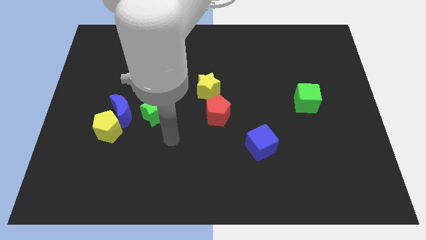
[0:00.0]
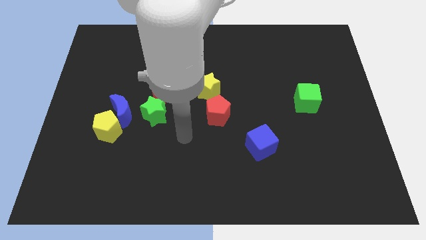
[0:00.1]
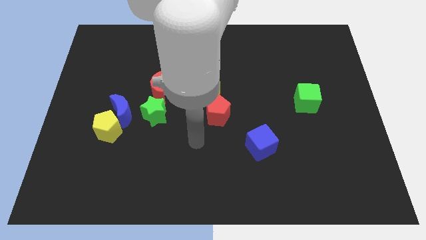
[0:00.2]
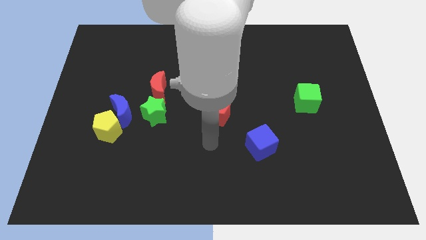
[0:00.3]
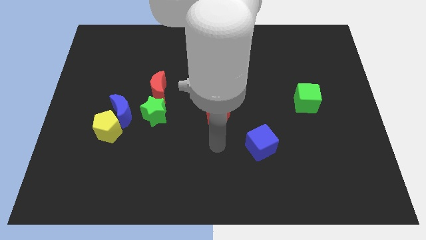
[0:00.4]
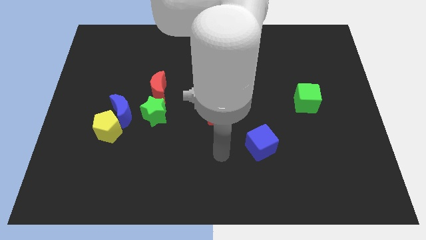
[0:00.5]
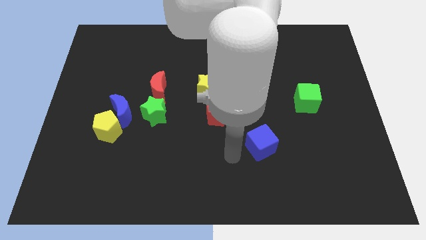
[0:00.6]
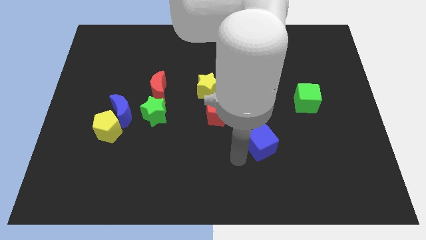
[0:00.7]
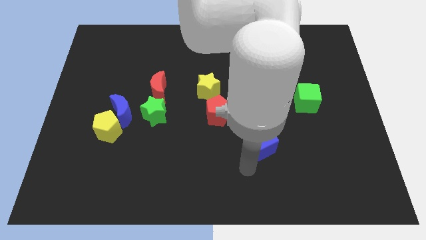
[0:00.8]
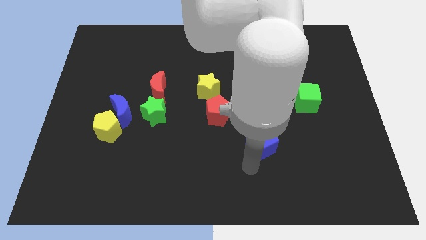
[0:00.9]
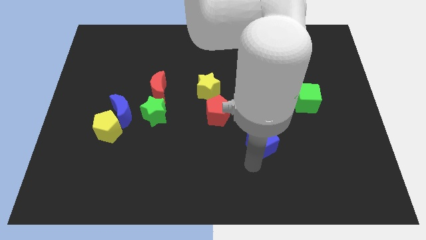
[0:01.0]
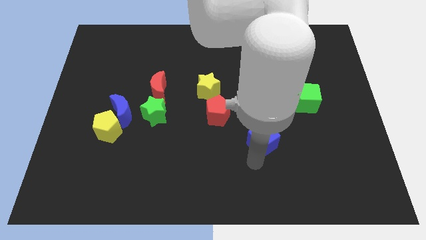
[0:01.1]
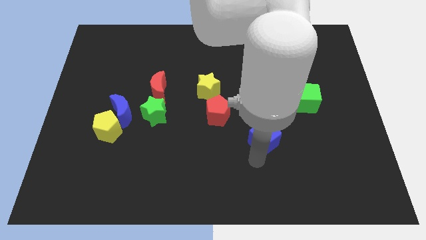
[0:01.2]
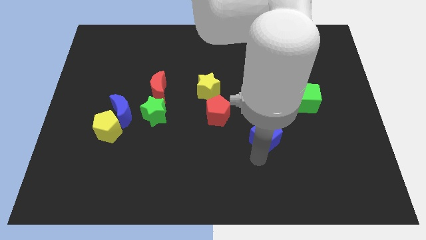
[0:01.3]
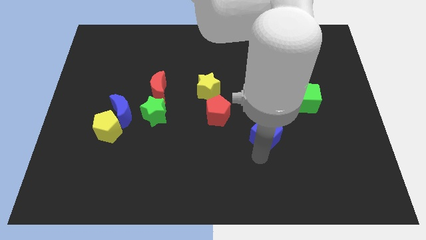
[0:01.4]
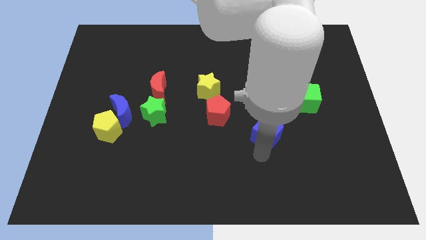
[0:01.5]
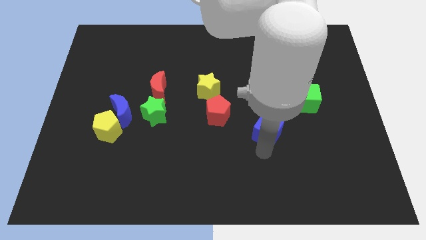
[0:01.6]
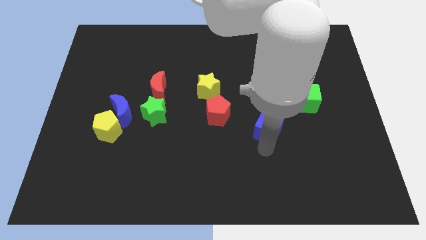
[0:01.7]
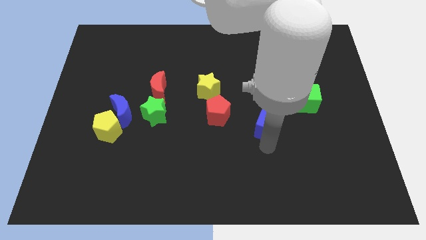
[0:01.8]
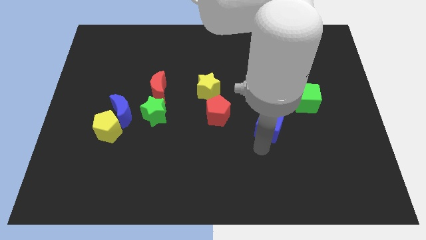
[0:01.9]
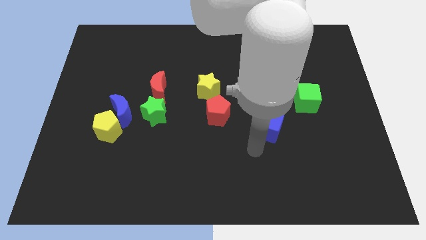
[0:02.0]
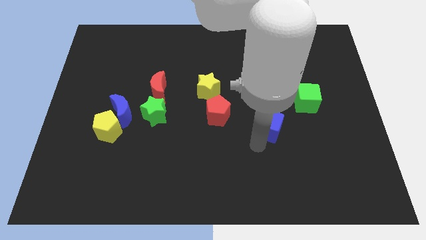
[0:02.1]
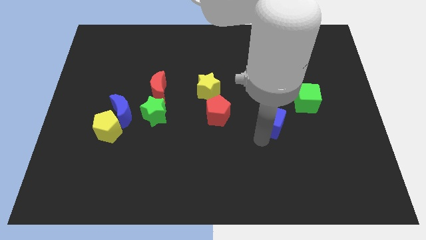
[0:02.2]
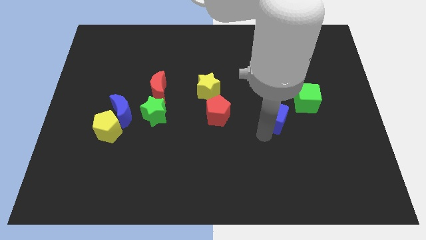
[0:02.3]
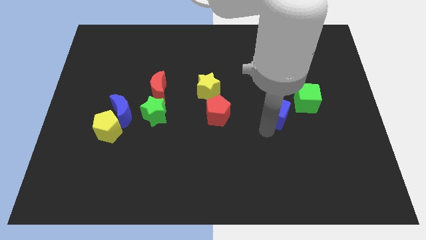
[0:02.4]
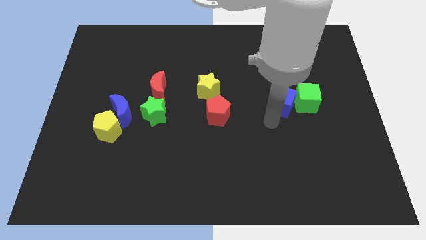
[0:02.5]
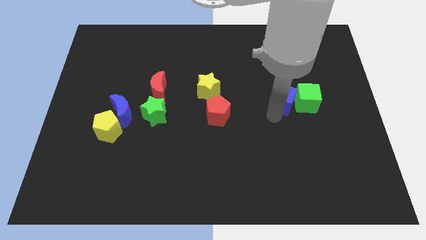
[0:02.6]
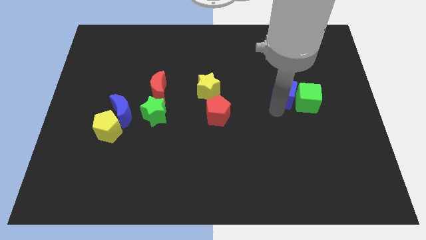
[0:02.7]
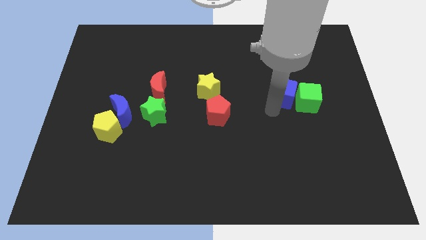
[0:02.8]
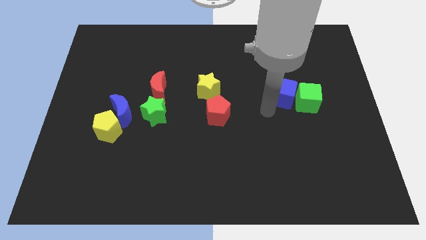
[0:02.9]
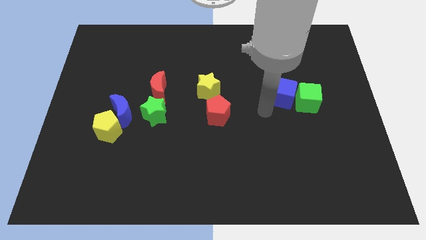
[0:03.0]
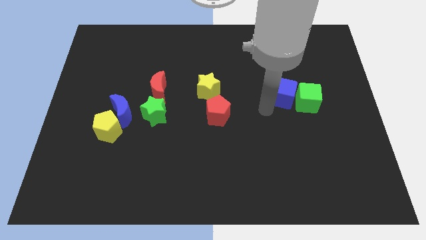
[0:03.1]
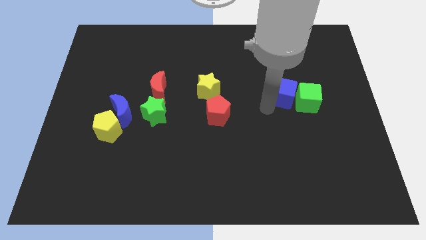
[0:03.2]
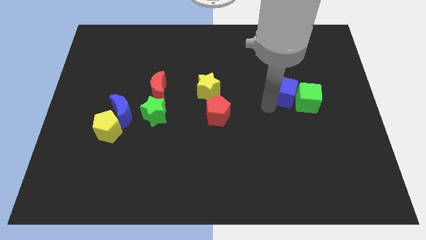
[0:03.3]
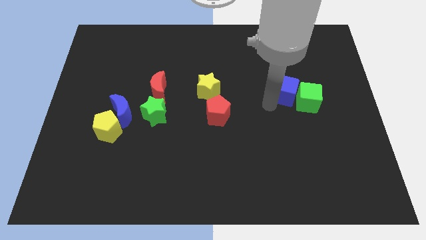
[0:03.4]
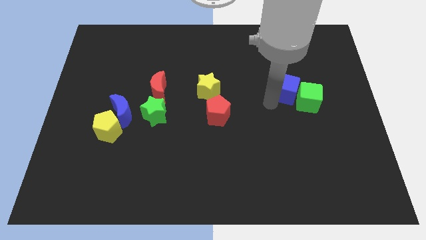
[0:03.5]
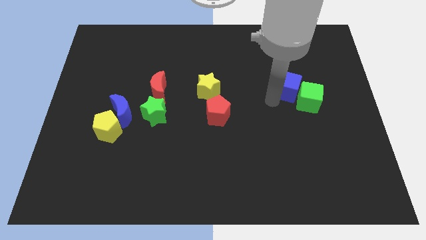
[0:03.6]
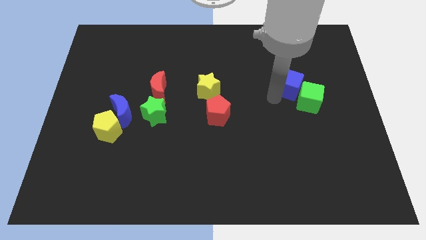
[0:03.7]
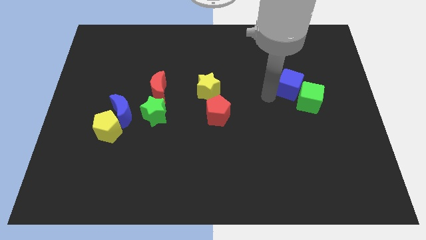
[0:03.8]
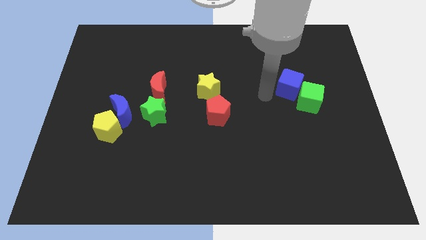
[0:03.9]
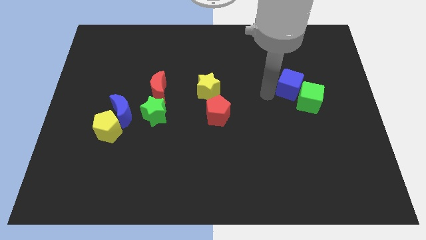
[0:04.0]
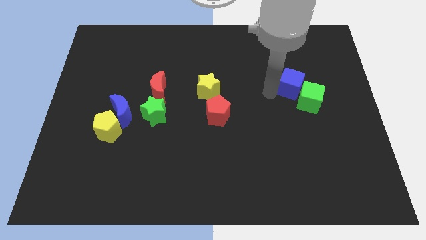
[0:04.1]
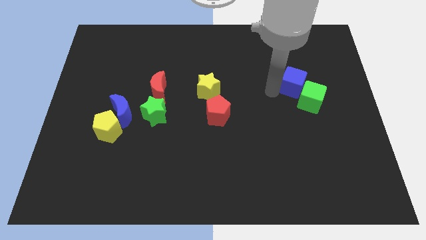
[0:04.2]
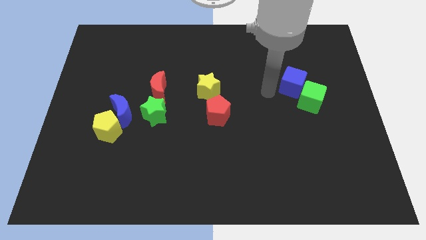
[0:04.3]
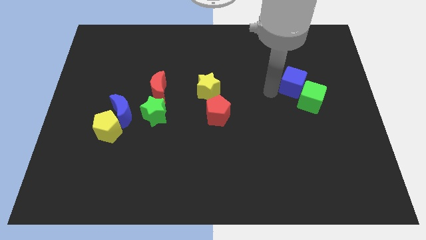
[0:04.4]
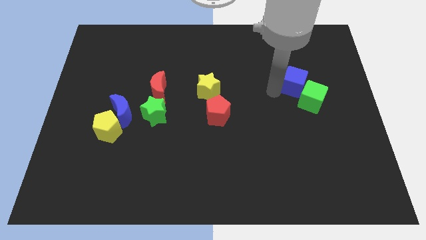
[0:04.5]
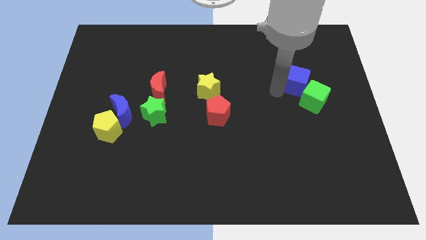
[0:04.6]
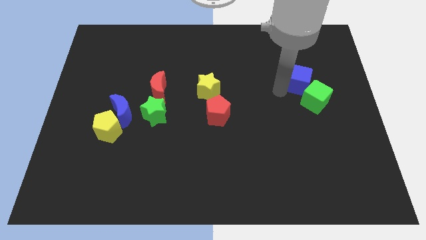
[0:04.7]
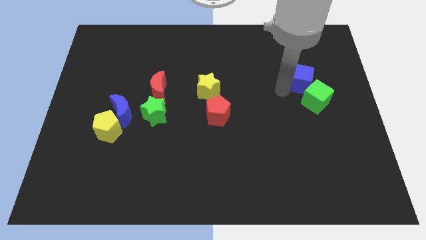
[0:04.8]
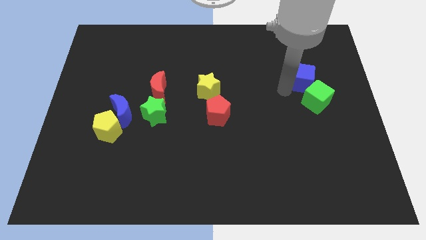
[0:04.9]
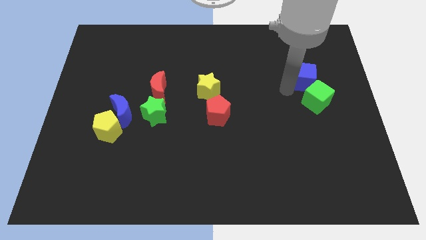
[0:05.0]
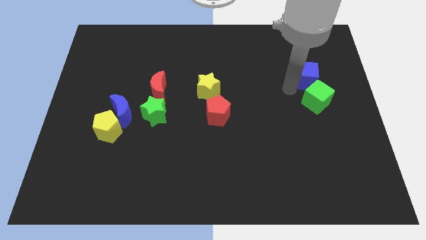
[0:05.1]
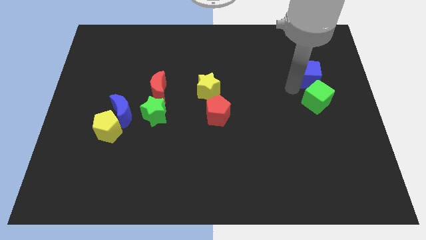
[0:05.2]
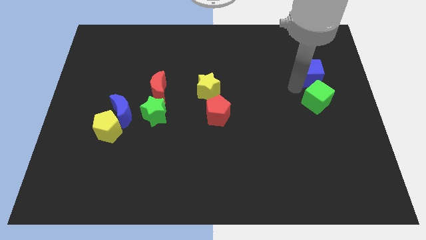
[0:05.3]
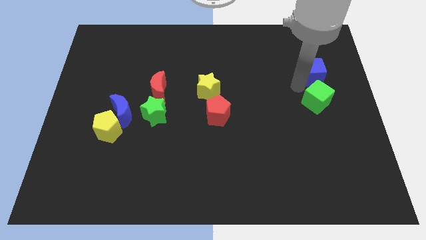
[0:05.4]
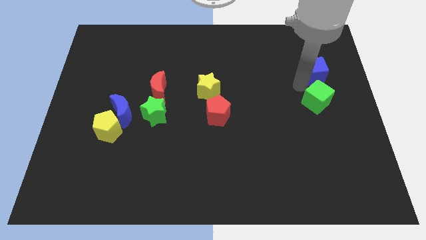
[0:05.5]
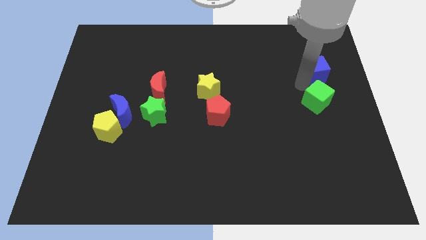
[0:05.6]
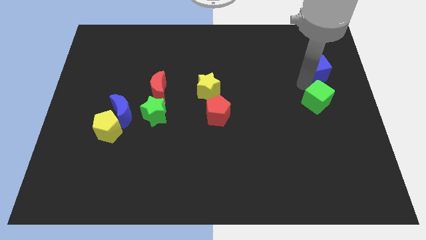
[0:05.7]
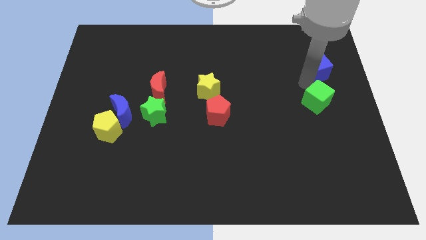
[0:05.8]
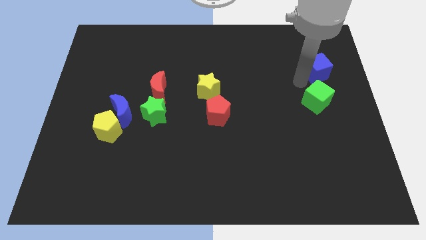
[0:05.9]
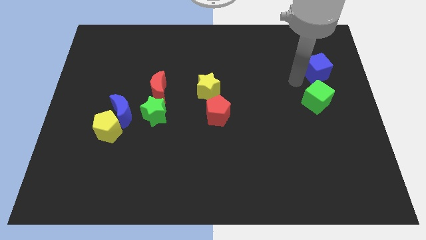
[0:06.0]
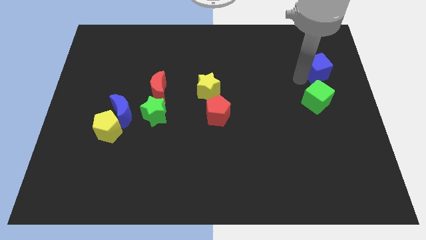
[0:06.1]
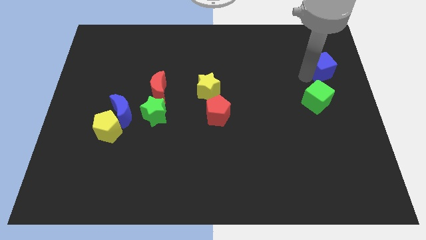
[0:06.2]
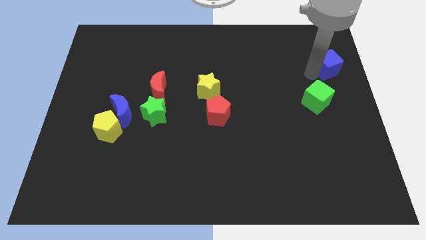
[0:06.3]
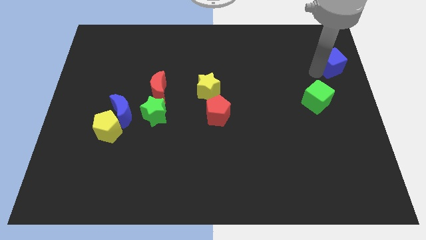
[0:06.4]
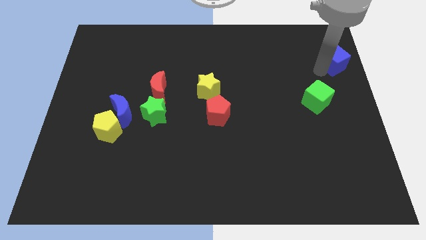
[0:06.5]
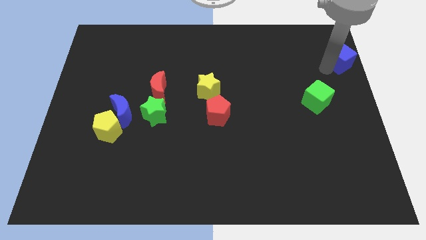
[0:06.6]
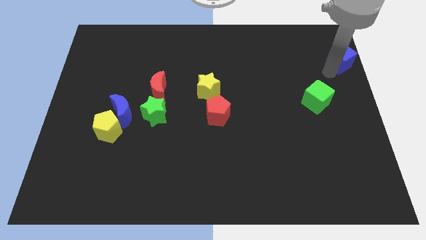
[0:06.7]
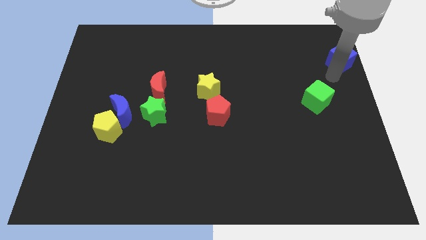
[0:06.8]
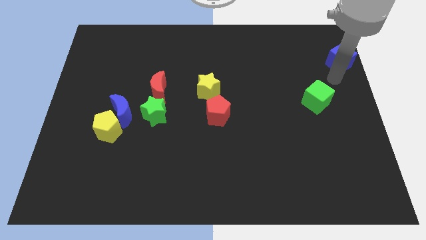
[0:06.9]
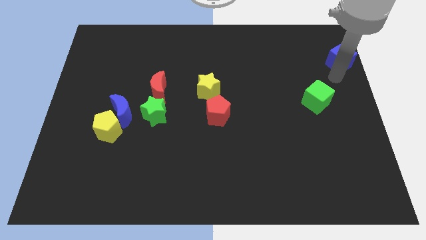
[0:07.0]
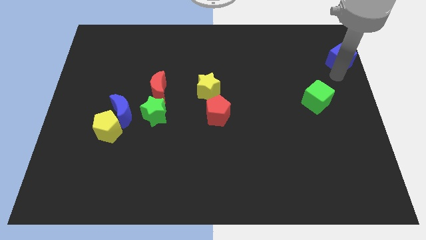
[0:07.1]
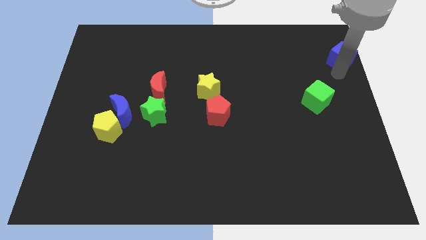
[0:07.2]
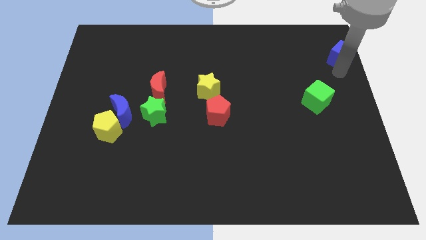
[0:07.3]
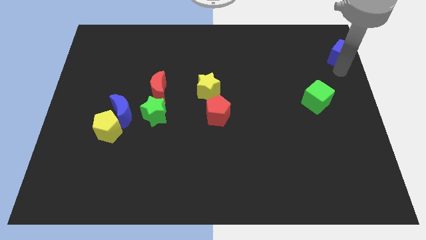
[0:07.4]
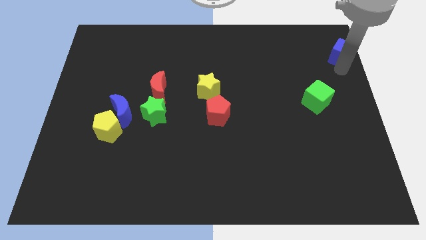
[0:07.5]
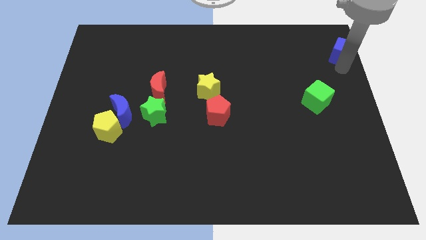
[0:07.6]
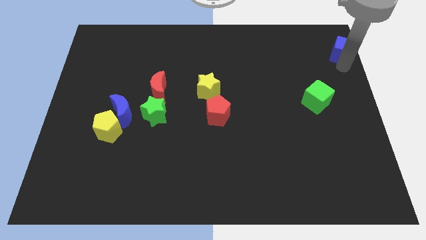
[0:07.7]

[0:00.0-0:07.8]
move the blue cube to the top right of the board
